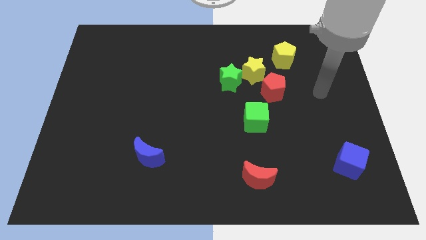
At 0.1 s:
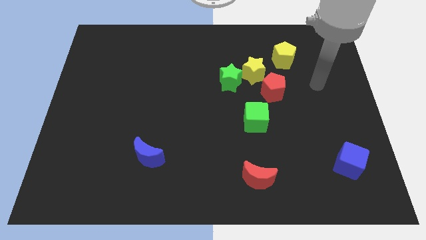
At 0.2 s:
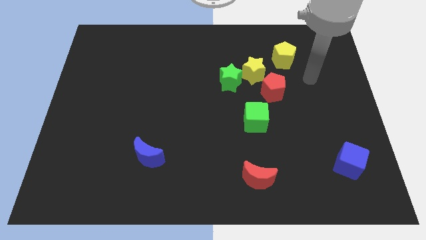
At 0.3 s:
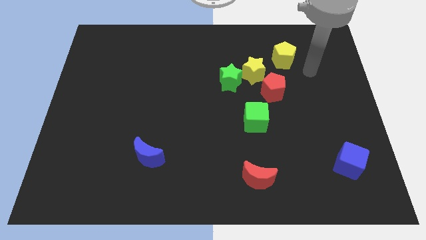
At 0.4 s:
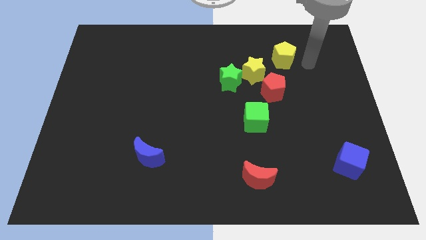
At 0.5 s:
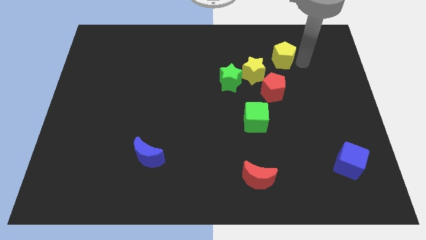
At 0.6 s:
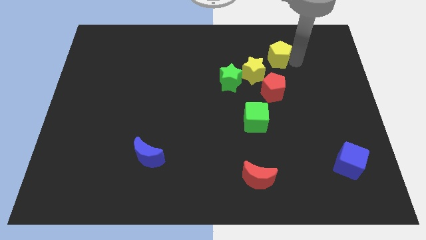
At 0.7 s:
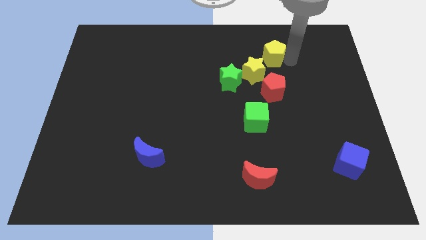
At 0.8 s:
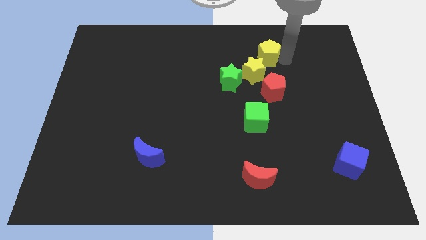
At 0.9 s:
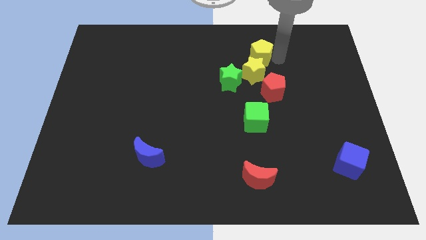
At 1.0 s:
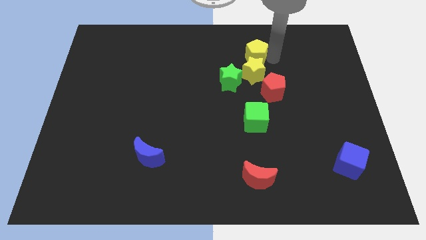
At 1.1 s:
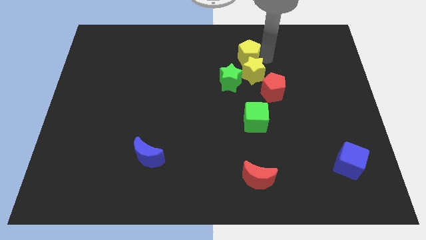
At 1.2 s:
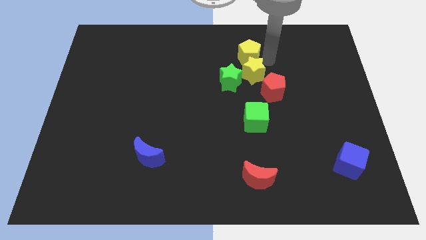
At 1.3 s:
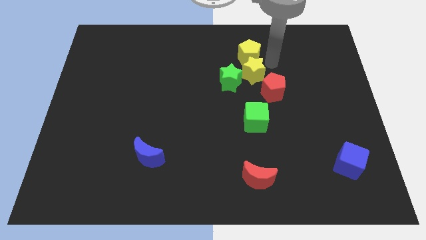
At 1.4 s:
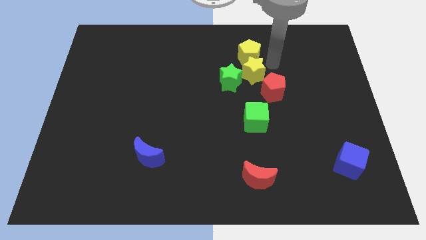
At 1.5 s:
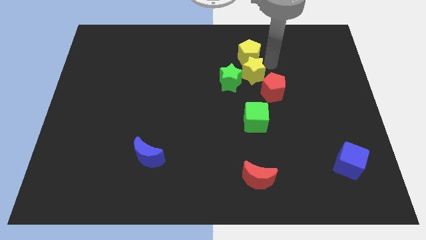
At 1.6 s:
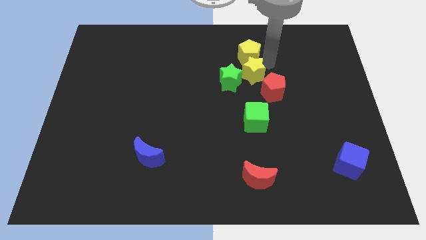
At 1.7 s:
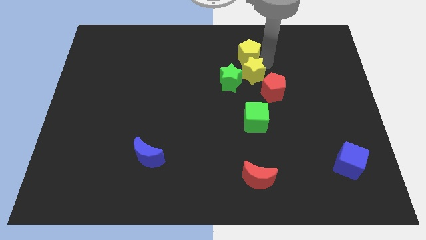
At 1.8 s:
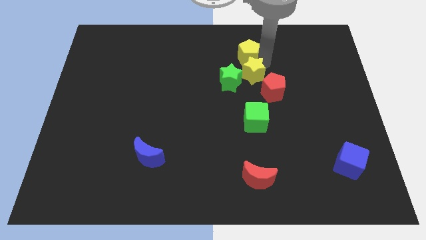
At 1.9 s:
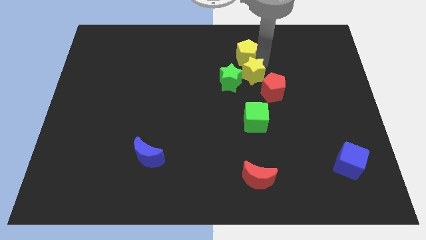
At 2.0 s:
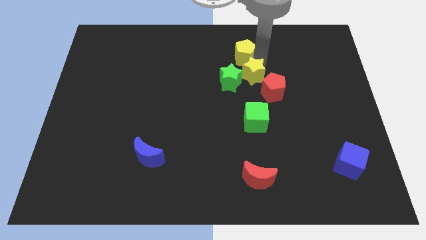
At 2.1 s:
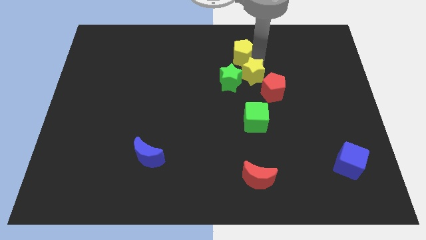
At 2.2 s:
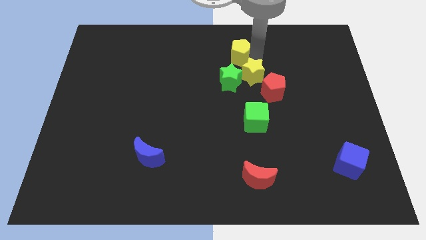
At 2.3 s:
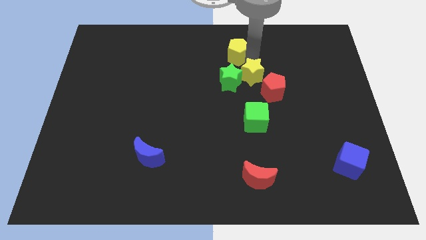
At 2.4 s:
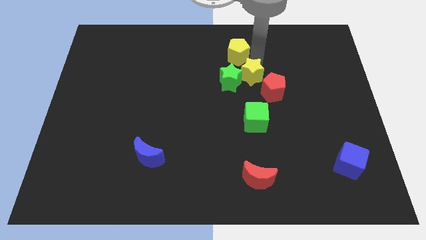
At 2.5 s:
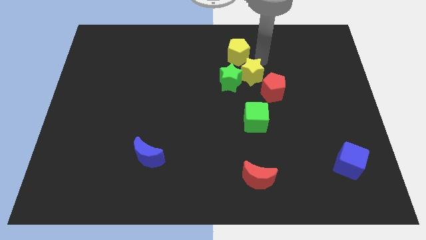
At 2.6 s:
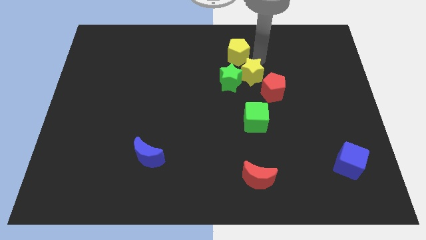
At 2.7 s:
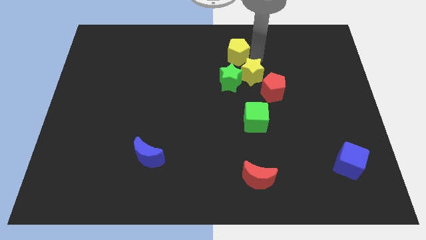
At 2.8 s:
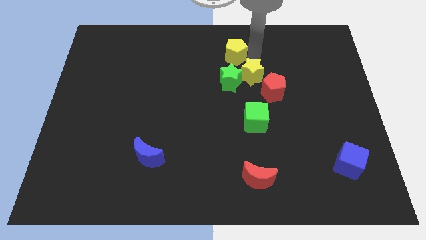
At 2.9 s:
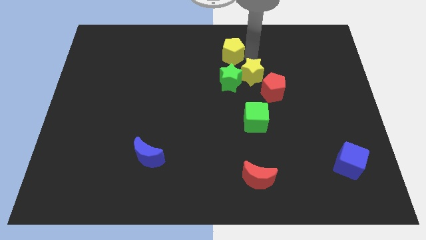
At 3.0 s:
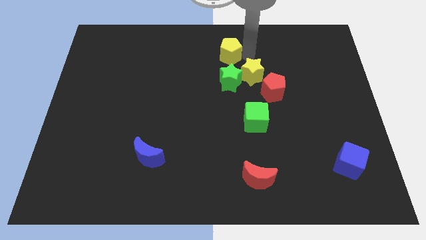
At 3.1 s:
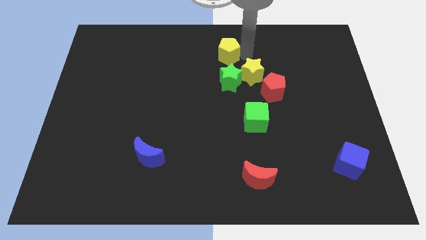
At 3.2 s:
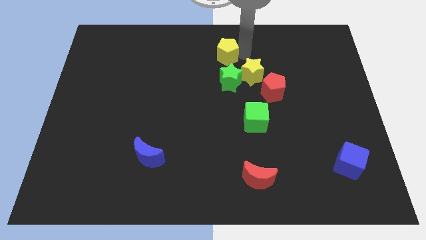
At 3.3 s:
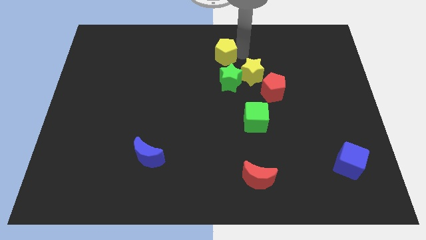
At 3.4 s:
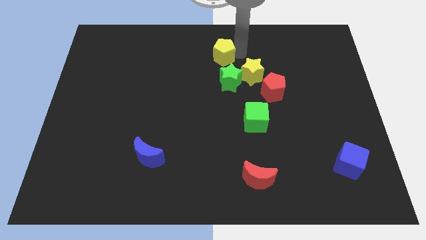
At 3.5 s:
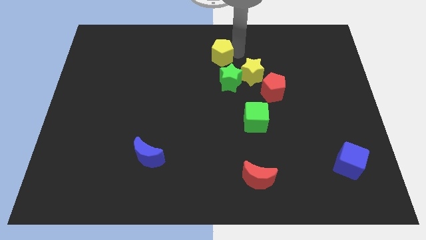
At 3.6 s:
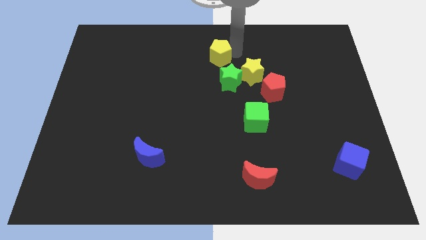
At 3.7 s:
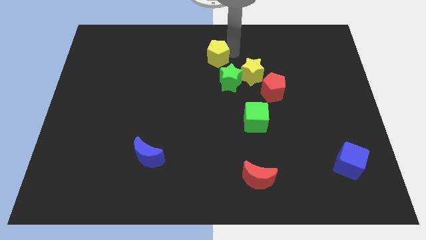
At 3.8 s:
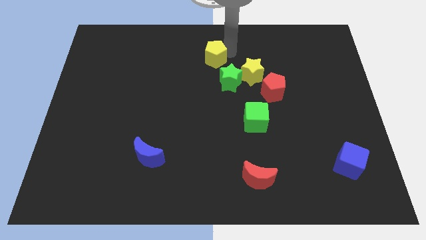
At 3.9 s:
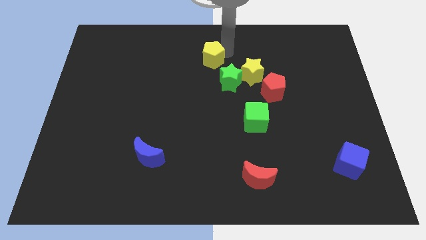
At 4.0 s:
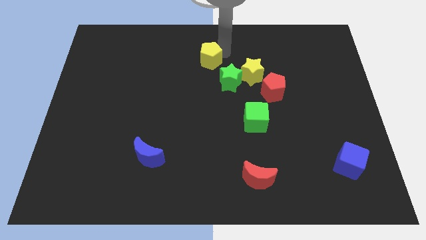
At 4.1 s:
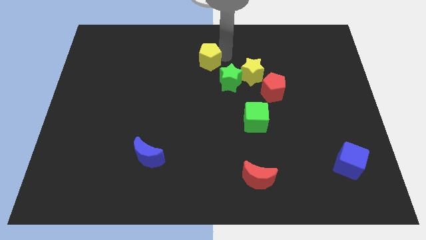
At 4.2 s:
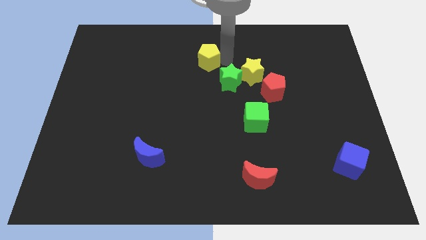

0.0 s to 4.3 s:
move the yellow pentagon left

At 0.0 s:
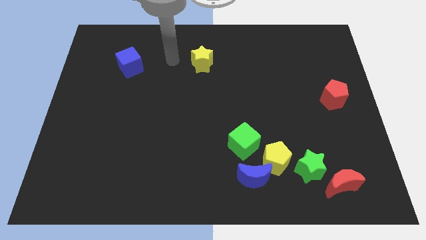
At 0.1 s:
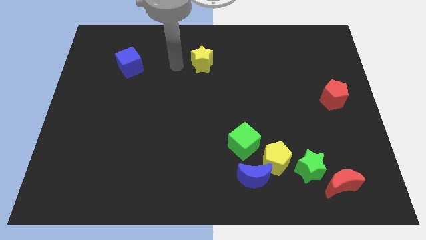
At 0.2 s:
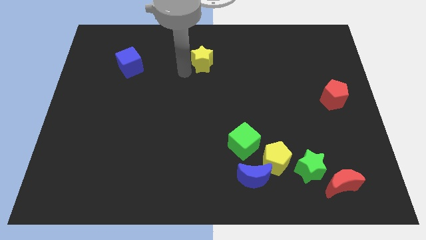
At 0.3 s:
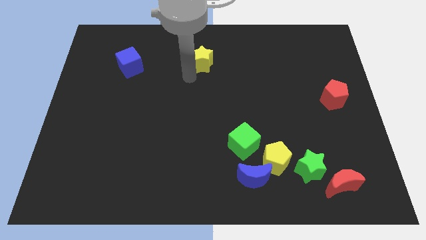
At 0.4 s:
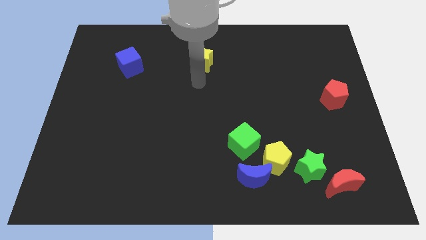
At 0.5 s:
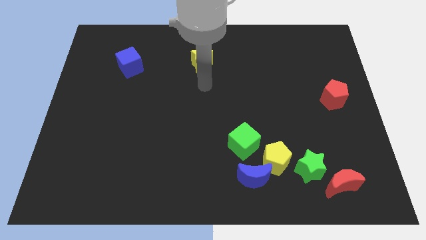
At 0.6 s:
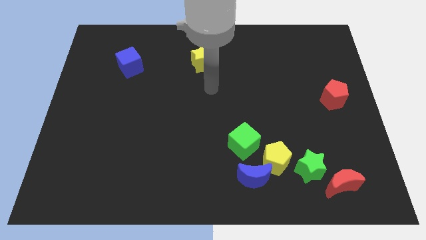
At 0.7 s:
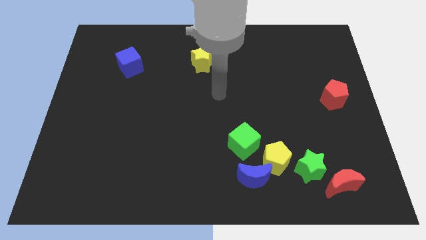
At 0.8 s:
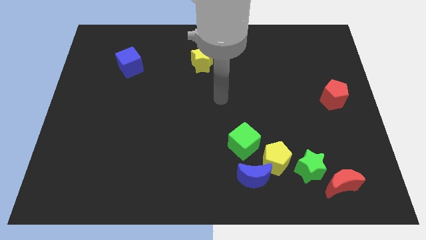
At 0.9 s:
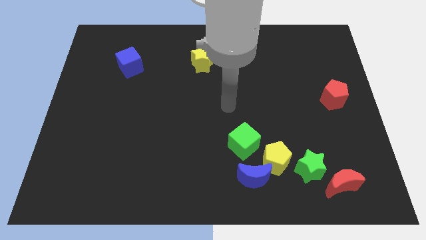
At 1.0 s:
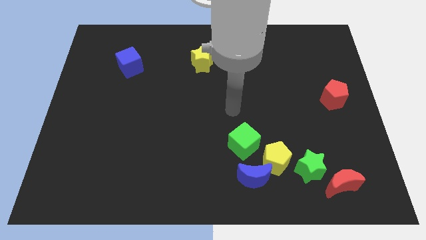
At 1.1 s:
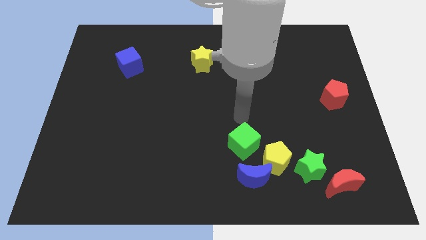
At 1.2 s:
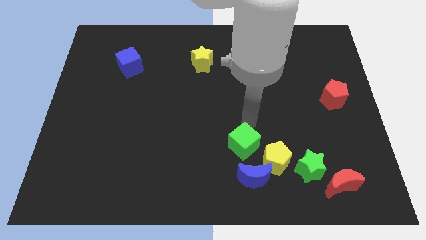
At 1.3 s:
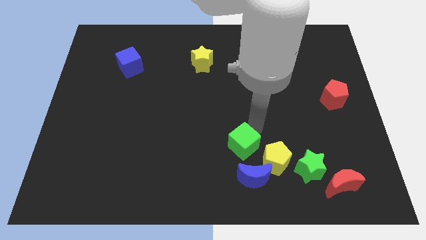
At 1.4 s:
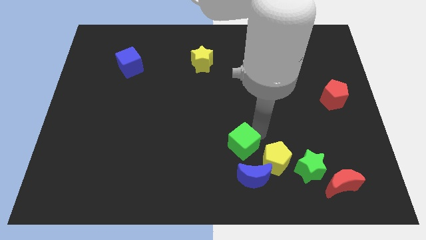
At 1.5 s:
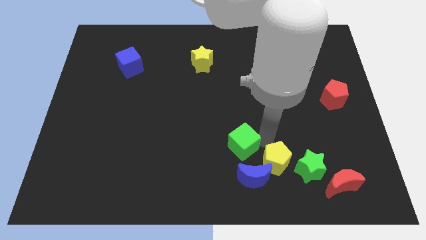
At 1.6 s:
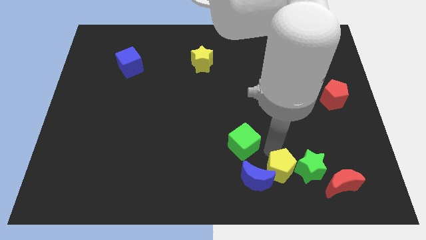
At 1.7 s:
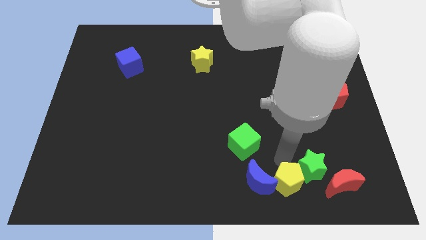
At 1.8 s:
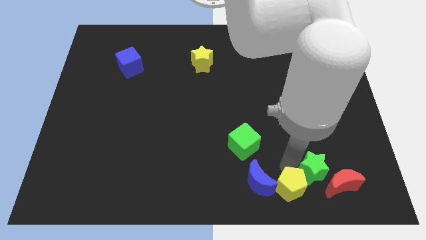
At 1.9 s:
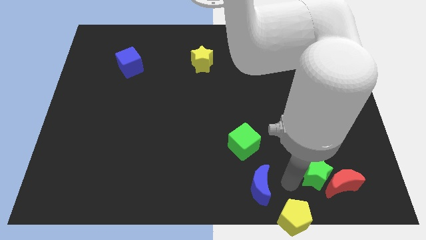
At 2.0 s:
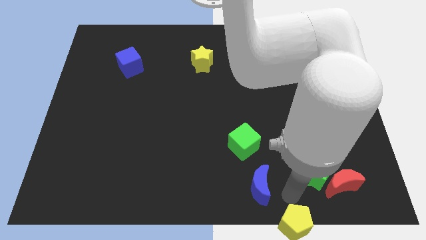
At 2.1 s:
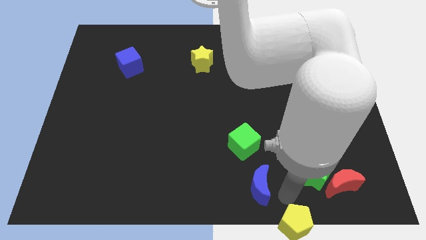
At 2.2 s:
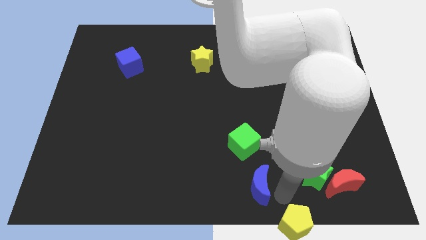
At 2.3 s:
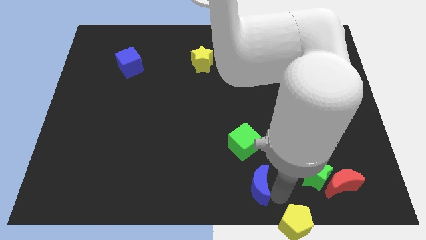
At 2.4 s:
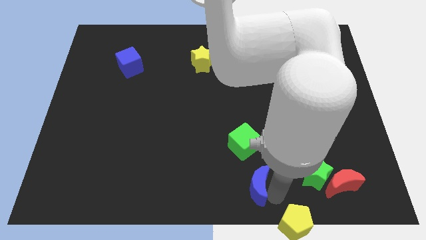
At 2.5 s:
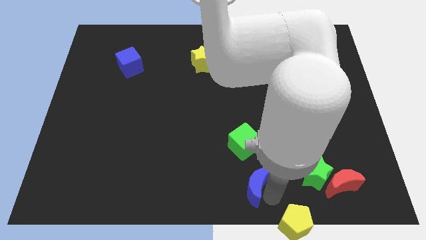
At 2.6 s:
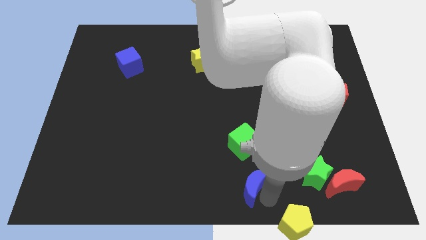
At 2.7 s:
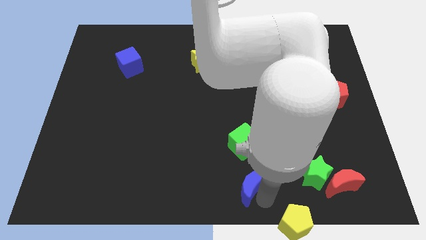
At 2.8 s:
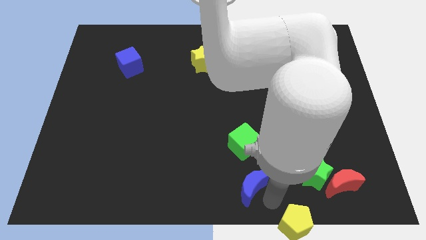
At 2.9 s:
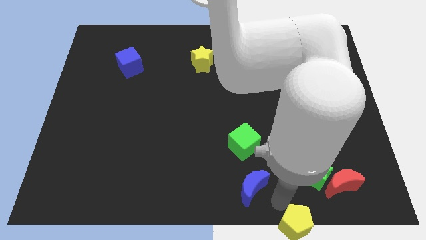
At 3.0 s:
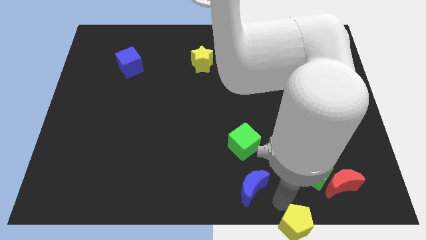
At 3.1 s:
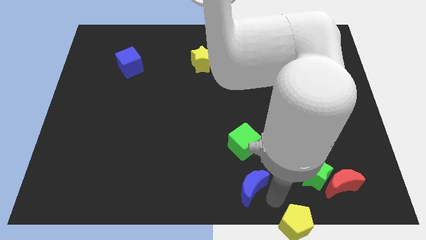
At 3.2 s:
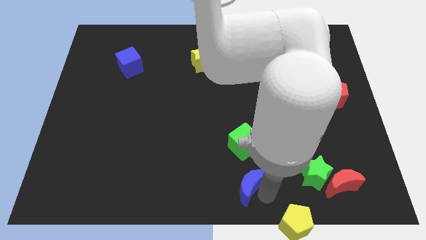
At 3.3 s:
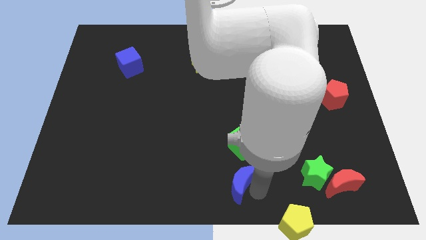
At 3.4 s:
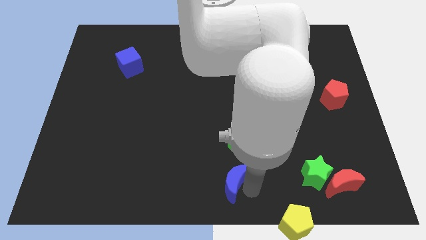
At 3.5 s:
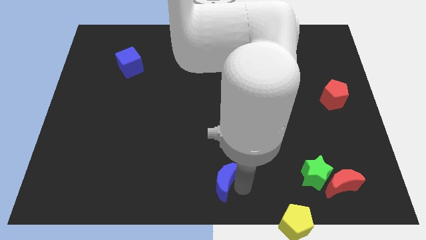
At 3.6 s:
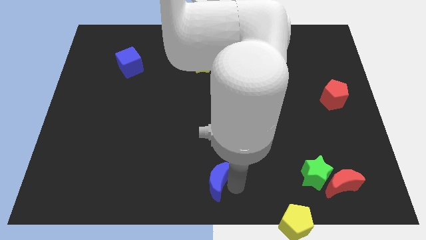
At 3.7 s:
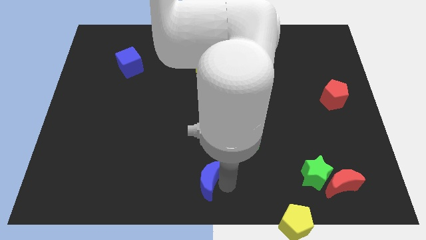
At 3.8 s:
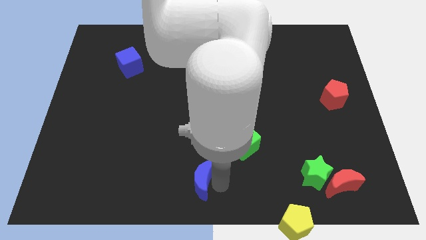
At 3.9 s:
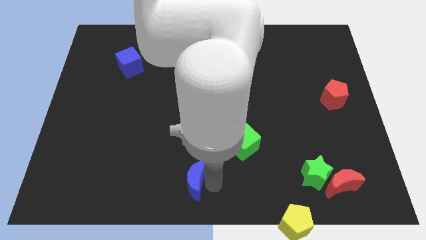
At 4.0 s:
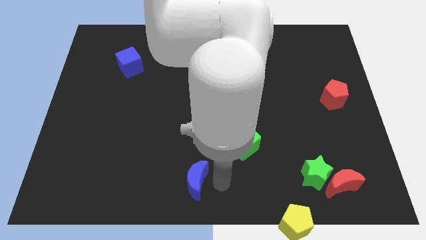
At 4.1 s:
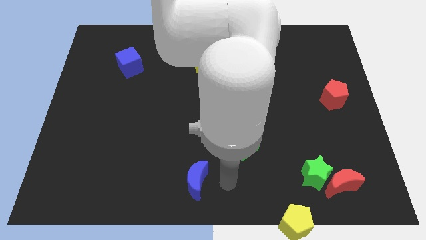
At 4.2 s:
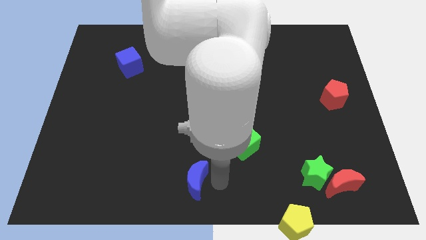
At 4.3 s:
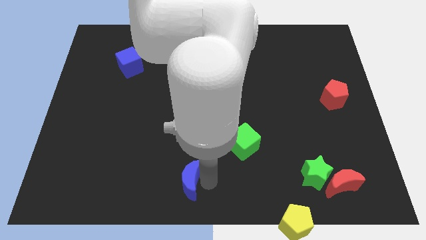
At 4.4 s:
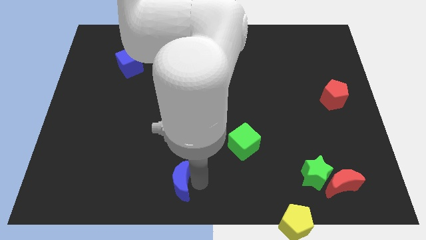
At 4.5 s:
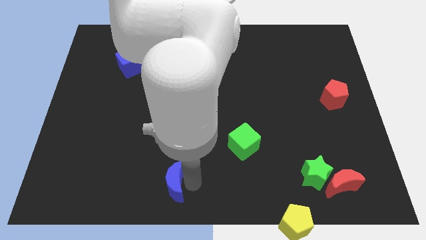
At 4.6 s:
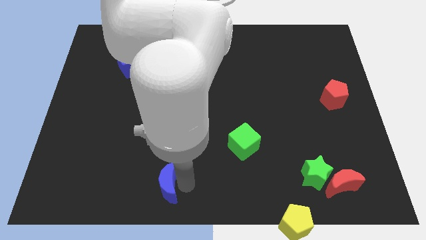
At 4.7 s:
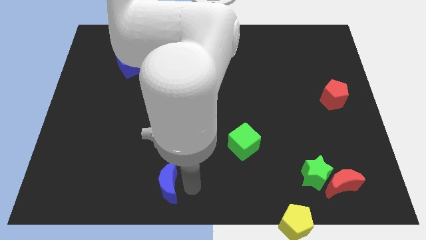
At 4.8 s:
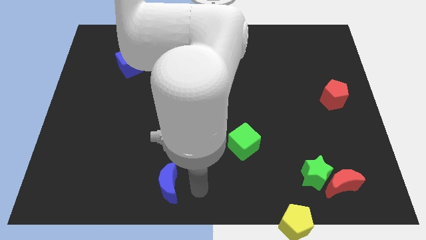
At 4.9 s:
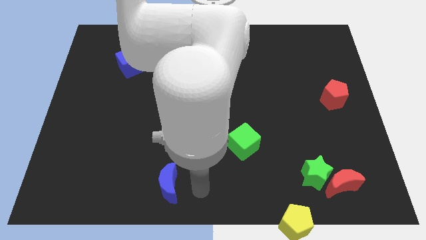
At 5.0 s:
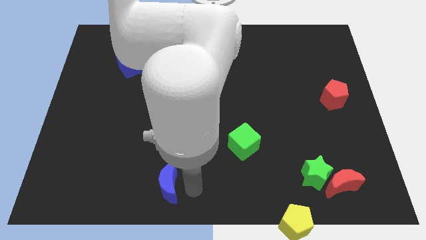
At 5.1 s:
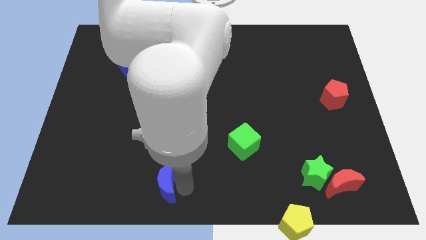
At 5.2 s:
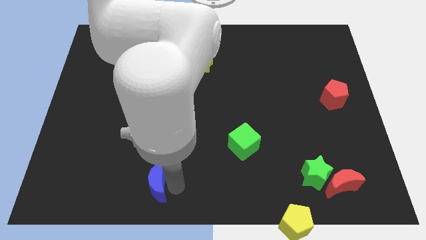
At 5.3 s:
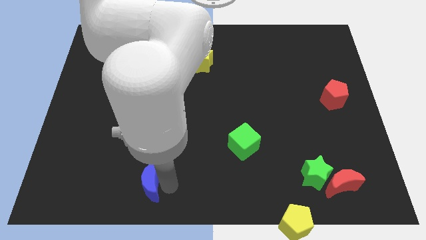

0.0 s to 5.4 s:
push the blue moon to the left
